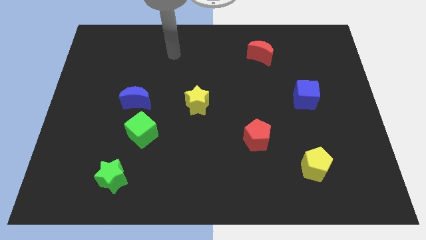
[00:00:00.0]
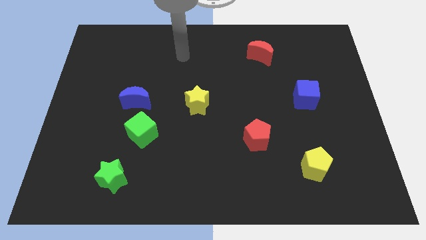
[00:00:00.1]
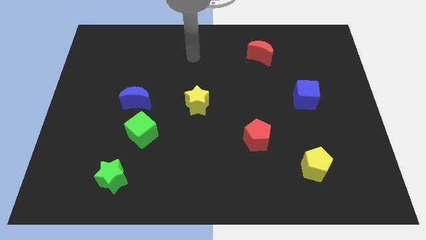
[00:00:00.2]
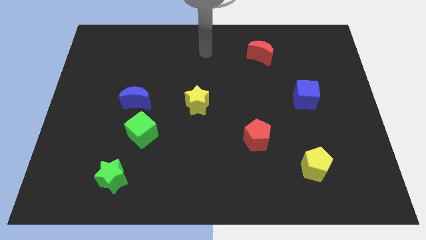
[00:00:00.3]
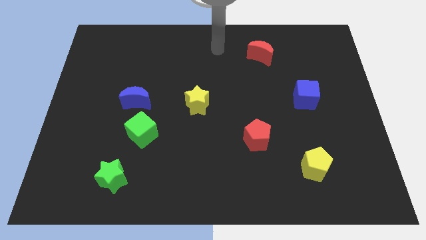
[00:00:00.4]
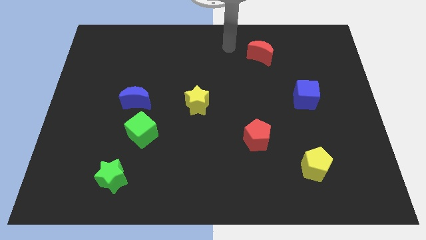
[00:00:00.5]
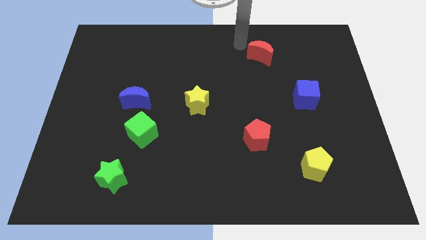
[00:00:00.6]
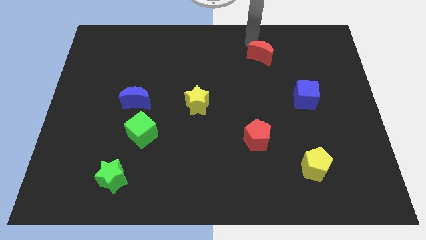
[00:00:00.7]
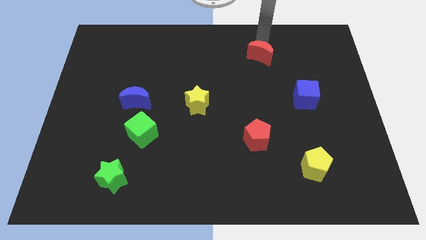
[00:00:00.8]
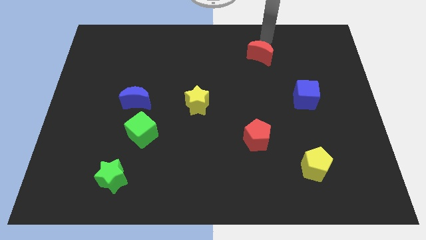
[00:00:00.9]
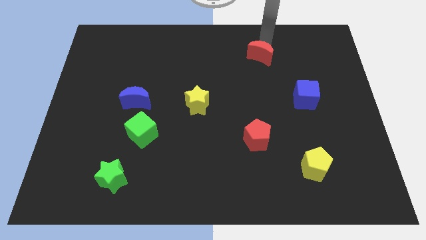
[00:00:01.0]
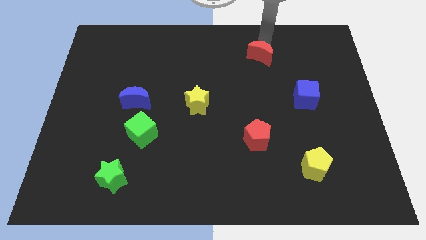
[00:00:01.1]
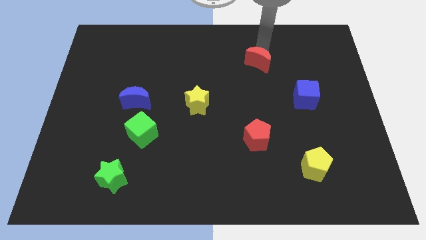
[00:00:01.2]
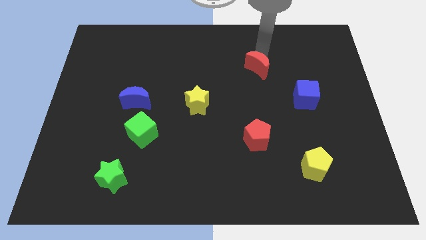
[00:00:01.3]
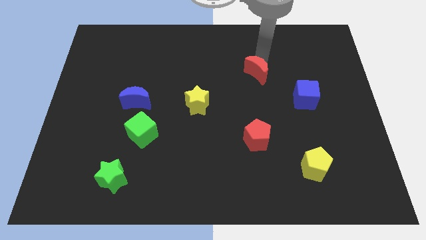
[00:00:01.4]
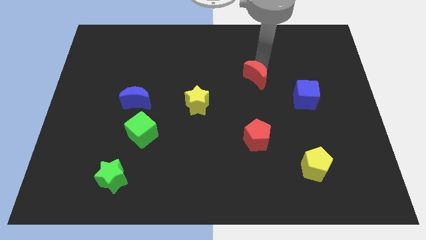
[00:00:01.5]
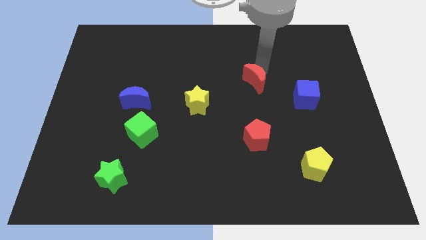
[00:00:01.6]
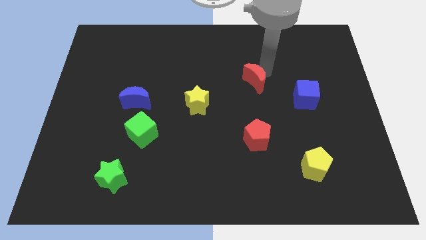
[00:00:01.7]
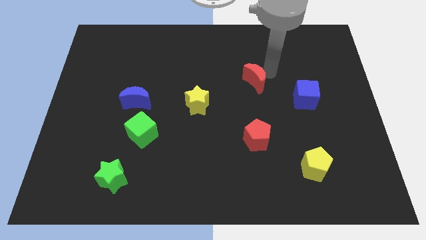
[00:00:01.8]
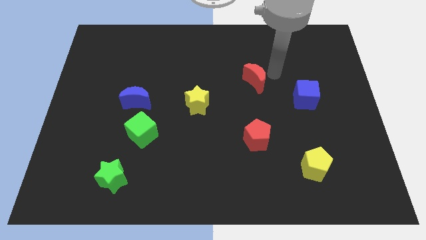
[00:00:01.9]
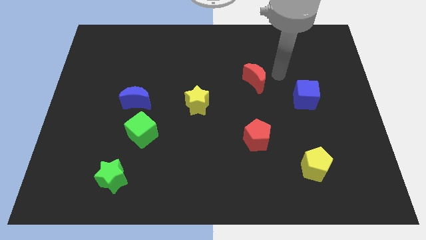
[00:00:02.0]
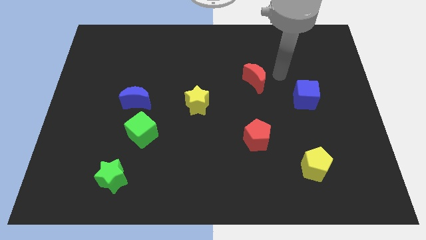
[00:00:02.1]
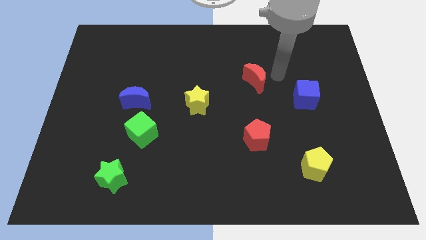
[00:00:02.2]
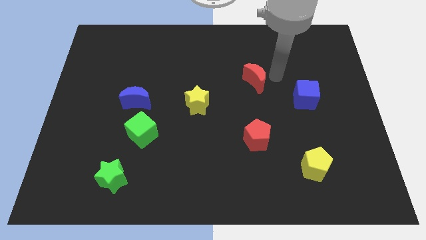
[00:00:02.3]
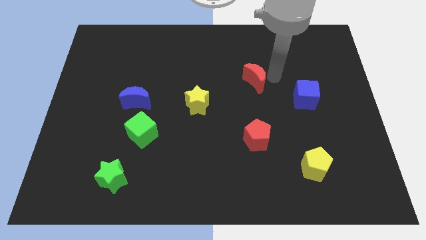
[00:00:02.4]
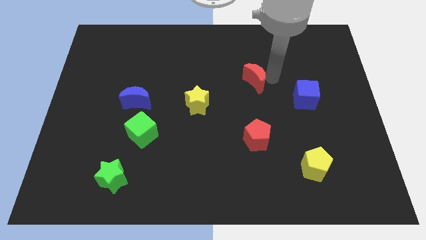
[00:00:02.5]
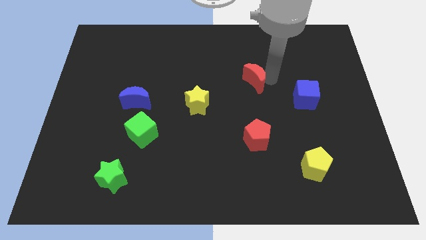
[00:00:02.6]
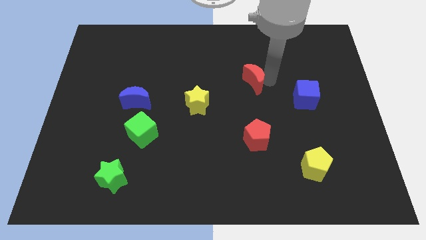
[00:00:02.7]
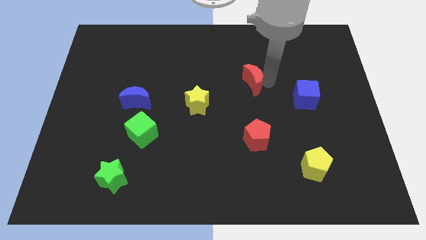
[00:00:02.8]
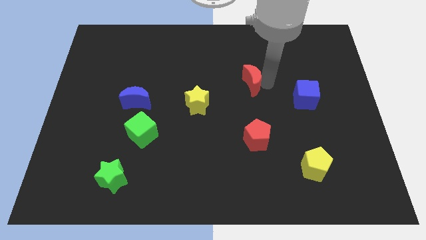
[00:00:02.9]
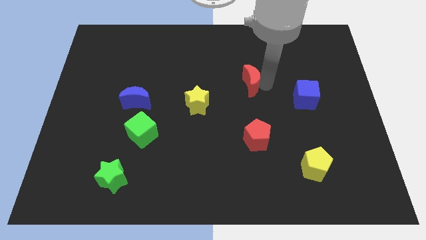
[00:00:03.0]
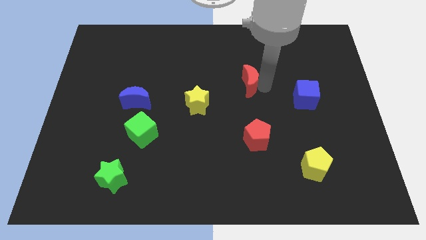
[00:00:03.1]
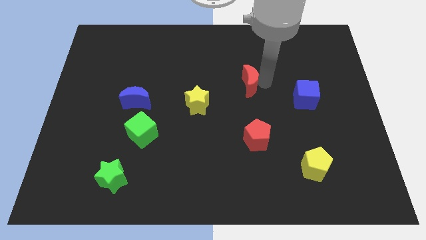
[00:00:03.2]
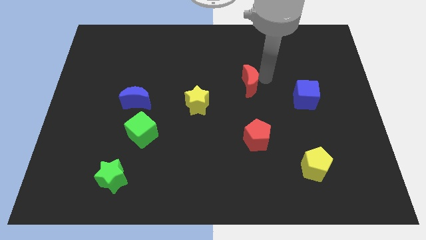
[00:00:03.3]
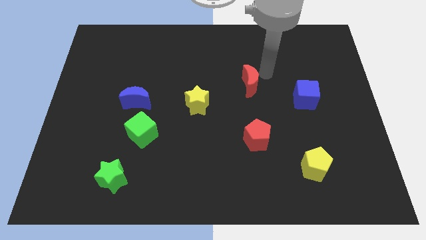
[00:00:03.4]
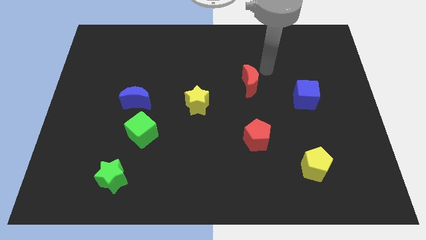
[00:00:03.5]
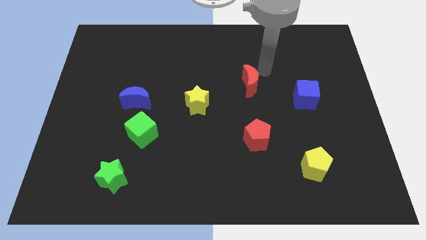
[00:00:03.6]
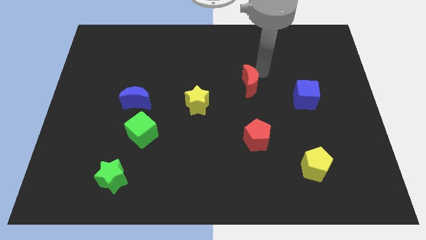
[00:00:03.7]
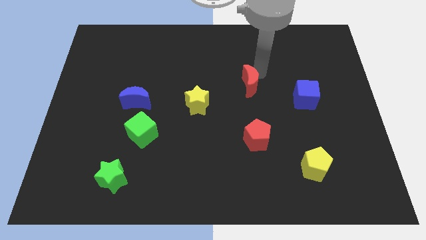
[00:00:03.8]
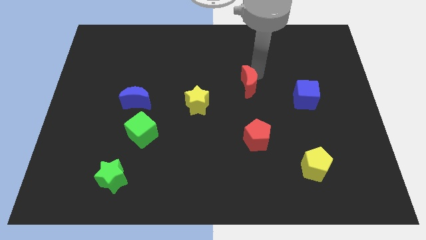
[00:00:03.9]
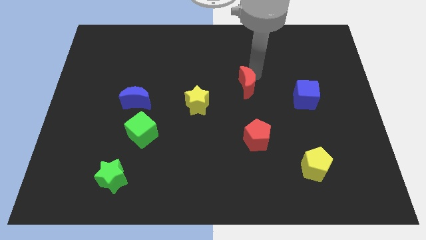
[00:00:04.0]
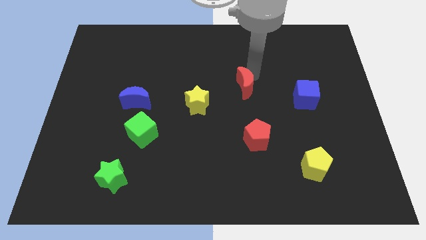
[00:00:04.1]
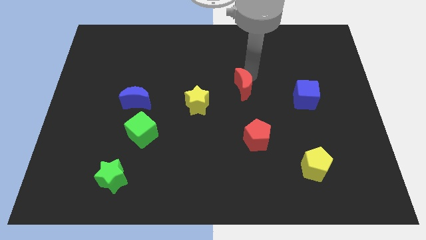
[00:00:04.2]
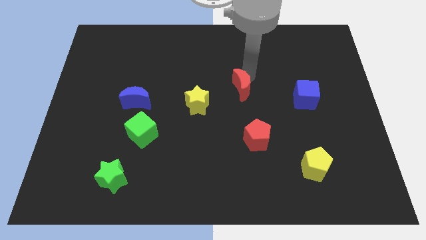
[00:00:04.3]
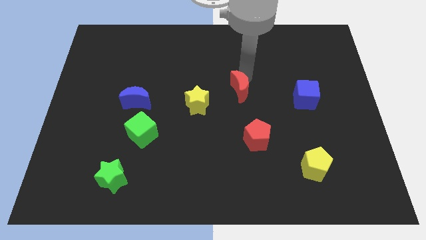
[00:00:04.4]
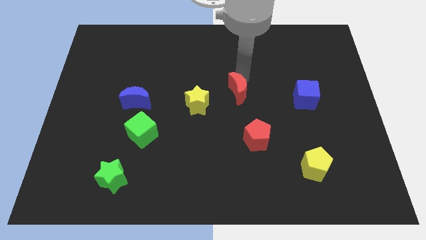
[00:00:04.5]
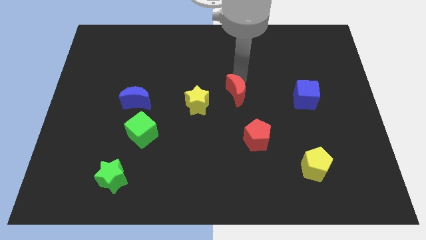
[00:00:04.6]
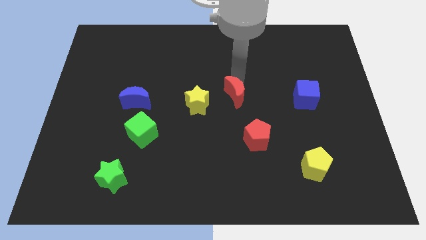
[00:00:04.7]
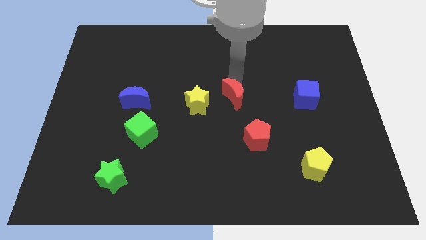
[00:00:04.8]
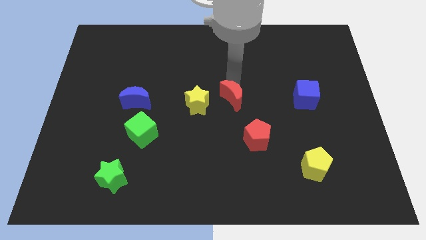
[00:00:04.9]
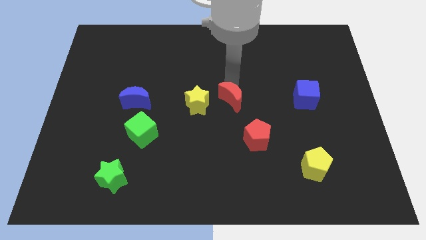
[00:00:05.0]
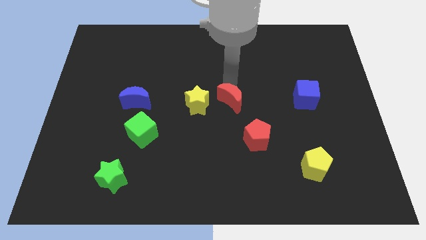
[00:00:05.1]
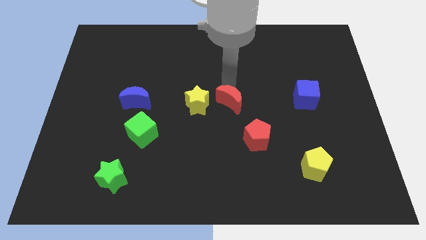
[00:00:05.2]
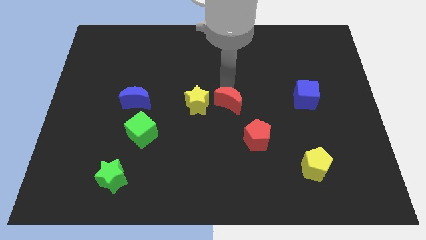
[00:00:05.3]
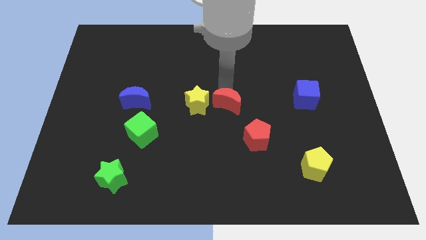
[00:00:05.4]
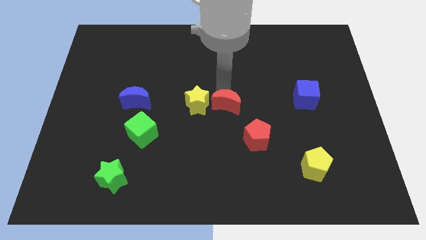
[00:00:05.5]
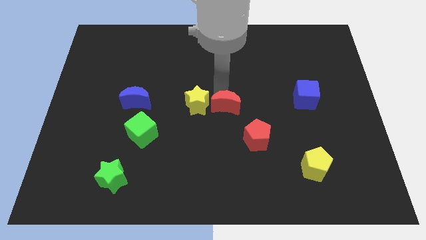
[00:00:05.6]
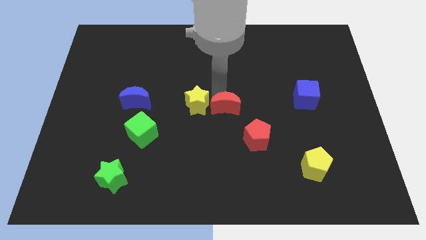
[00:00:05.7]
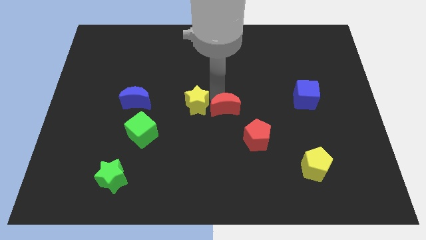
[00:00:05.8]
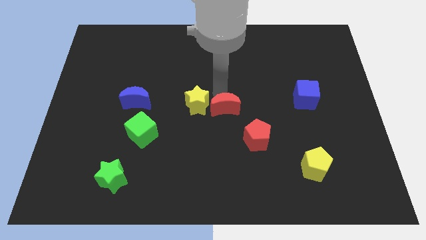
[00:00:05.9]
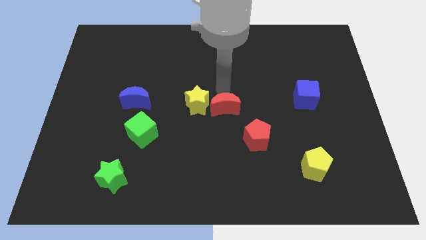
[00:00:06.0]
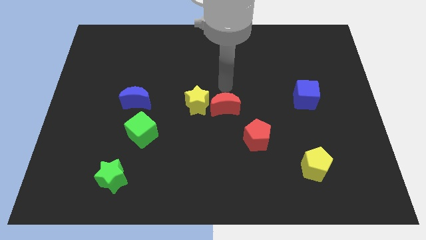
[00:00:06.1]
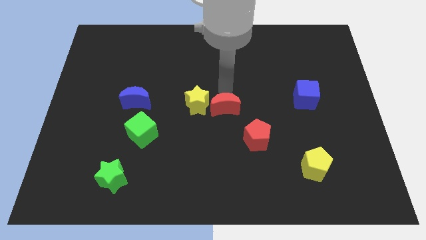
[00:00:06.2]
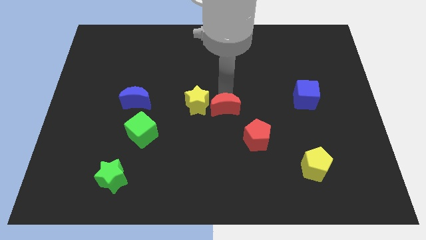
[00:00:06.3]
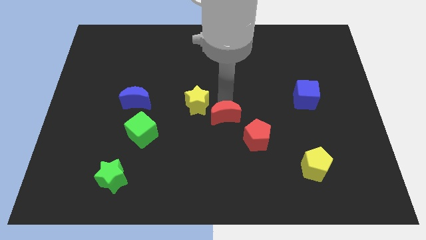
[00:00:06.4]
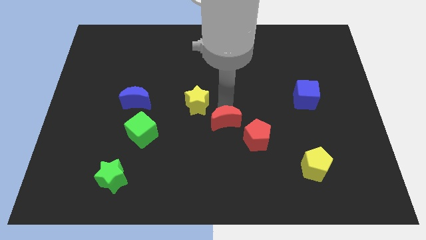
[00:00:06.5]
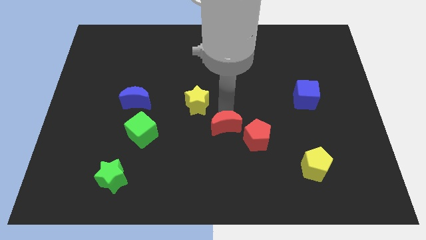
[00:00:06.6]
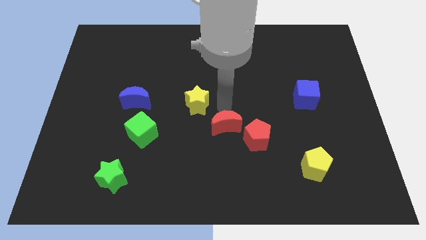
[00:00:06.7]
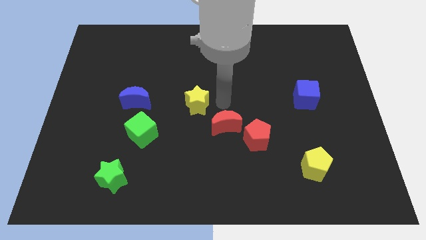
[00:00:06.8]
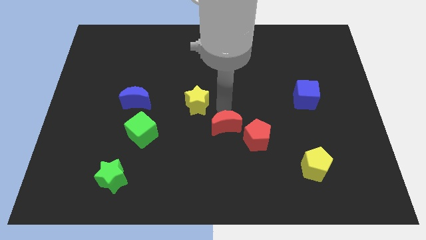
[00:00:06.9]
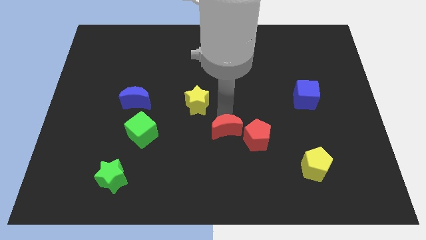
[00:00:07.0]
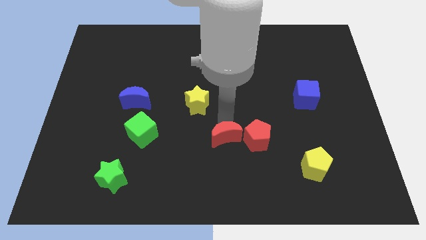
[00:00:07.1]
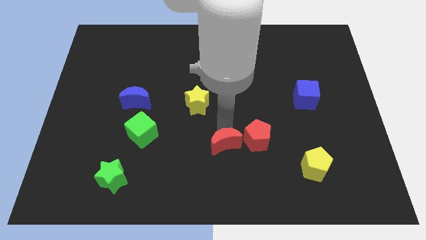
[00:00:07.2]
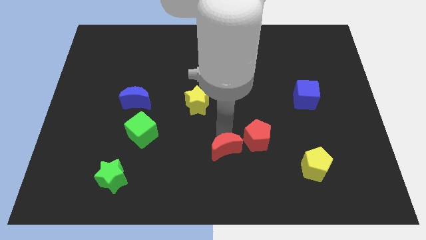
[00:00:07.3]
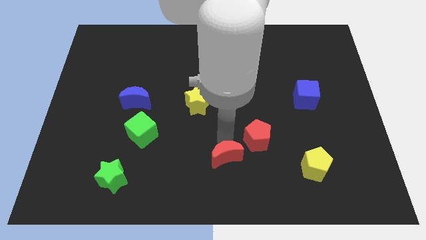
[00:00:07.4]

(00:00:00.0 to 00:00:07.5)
move the red moon to the bottom
